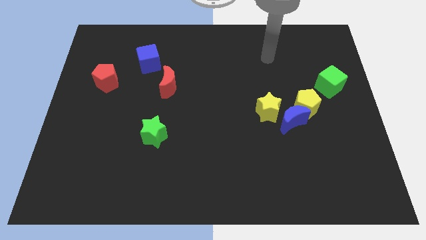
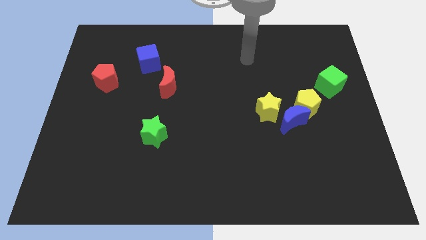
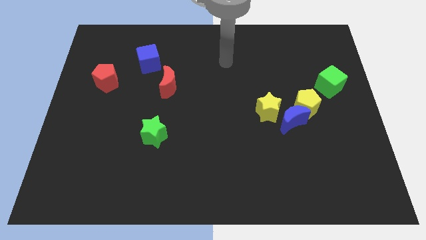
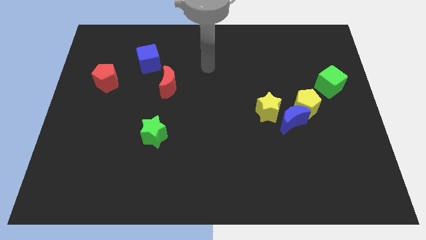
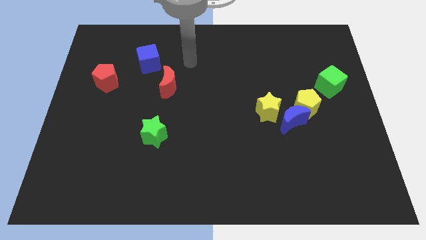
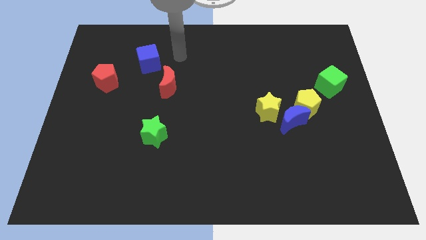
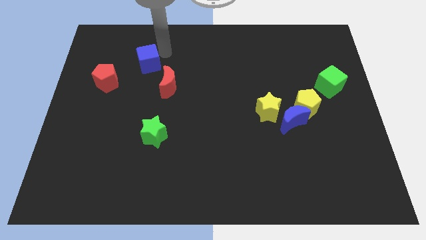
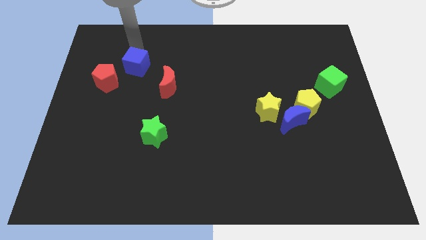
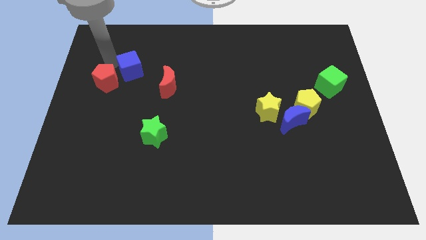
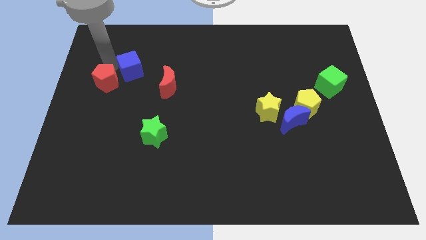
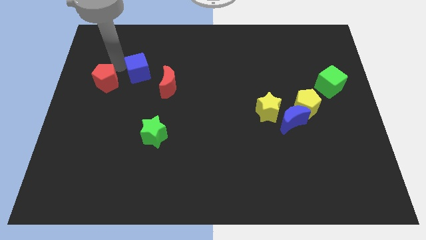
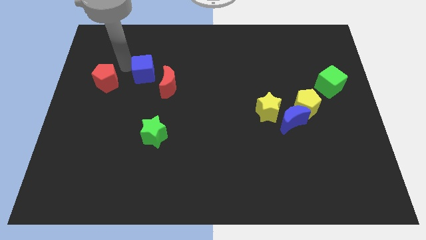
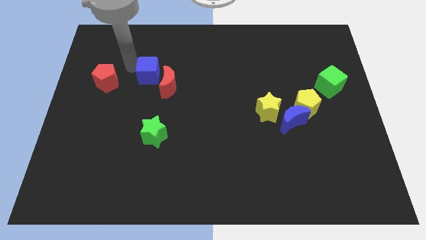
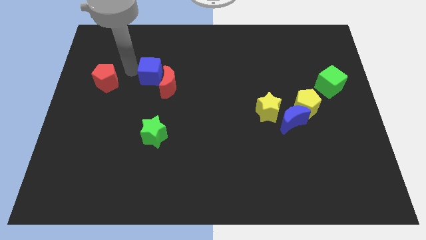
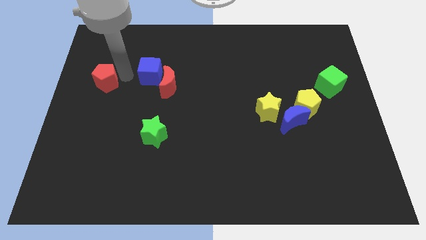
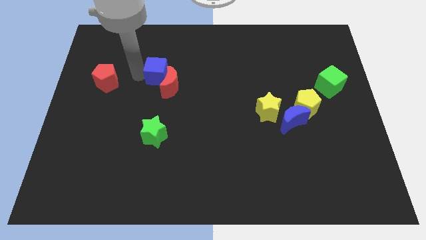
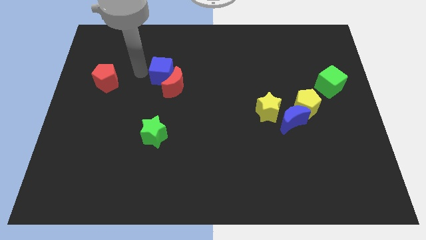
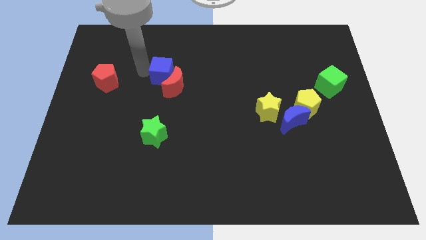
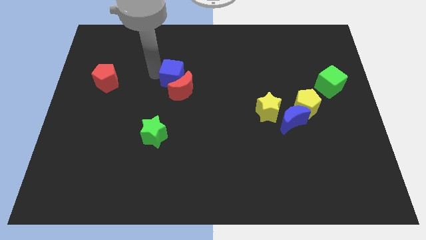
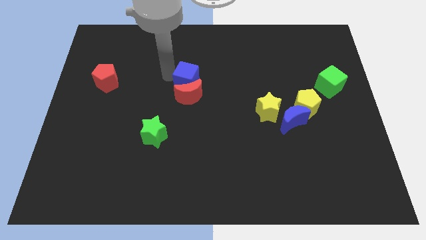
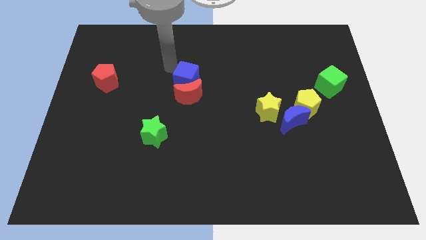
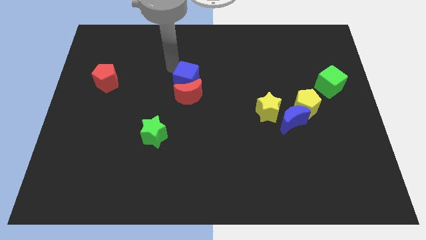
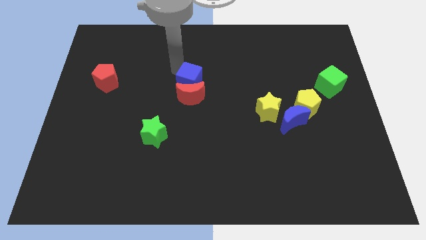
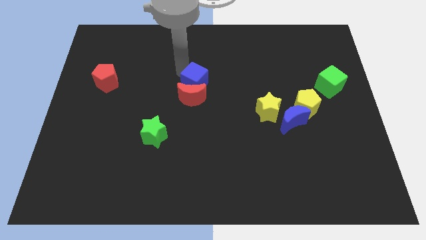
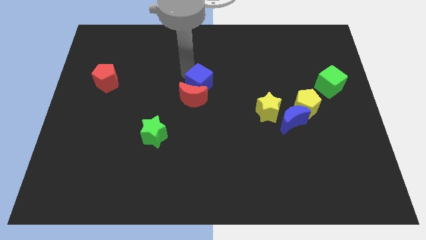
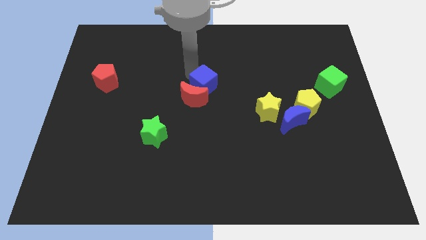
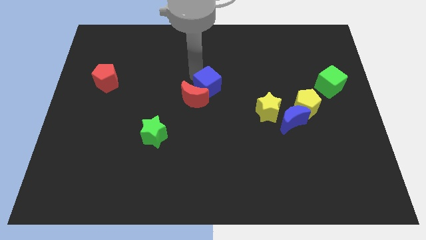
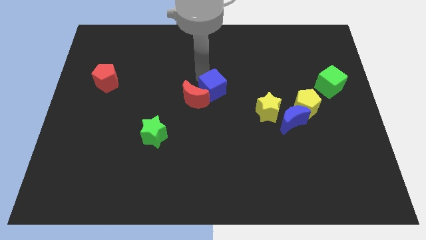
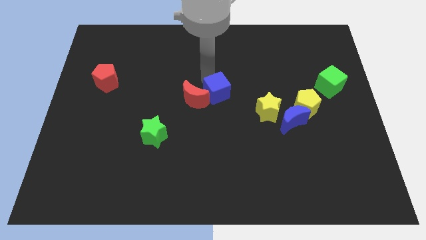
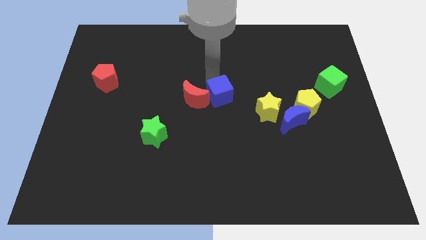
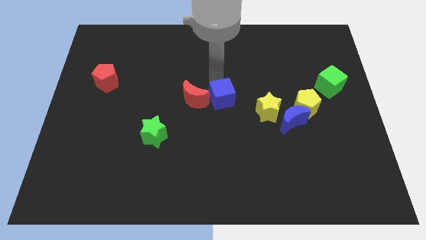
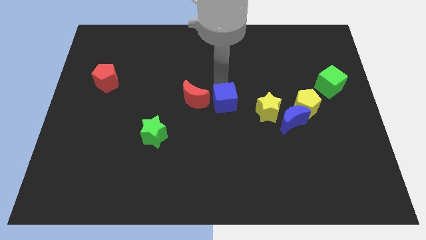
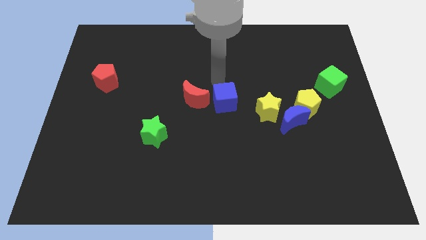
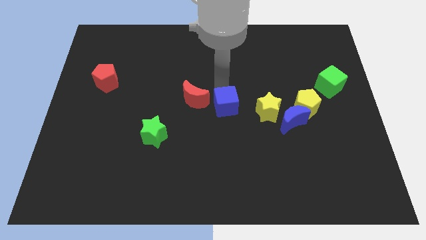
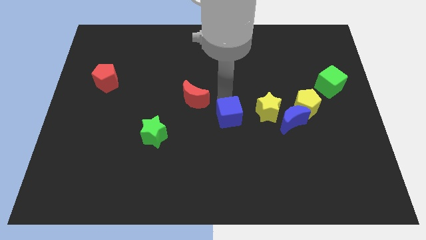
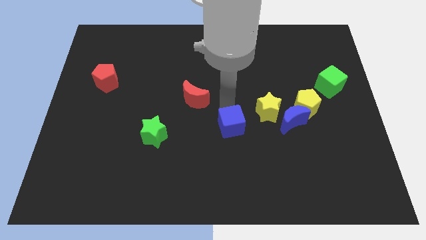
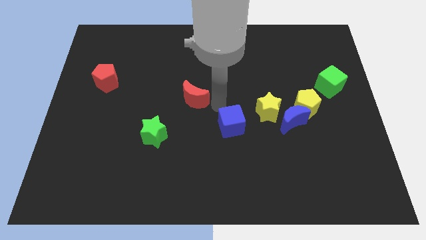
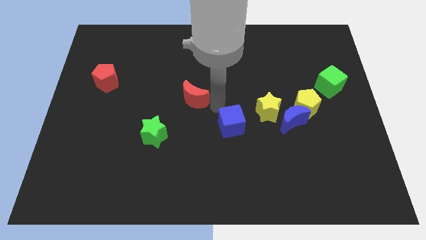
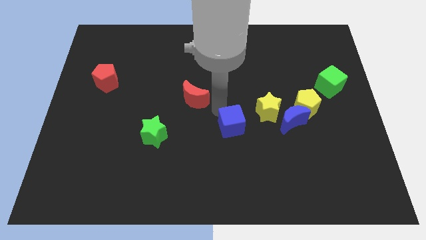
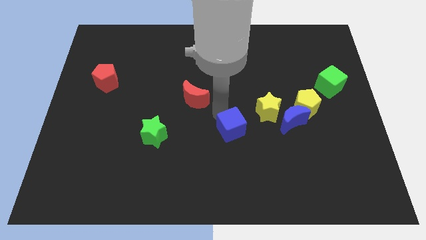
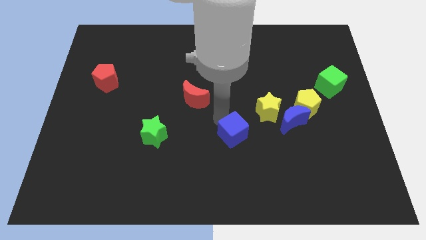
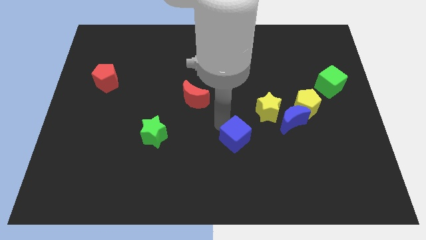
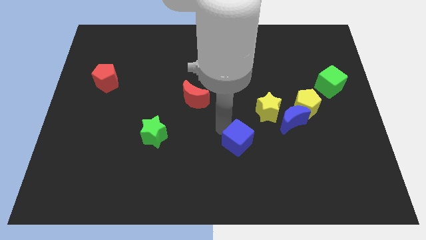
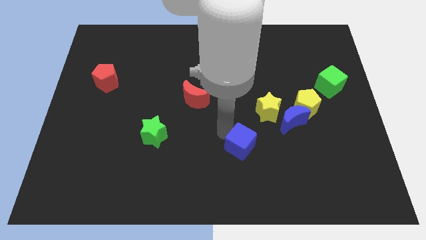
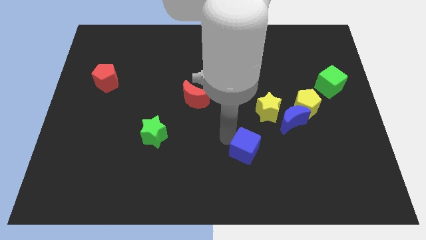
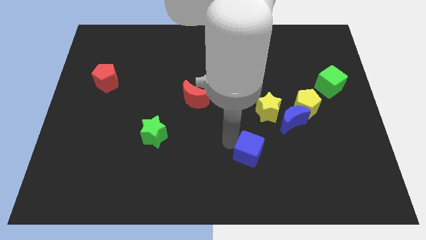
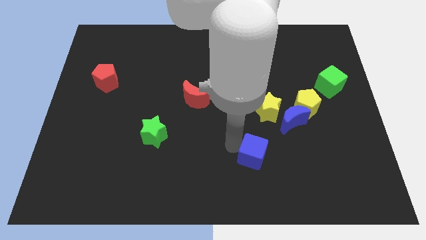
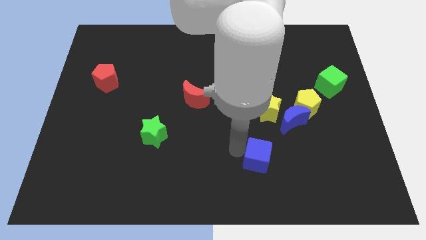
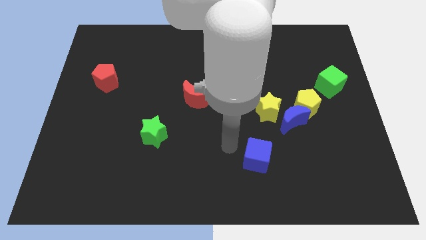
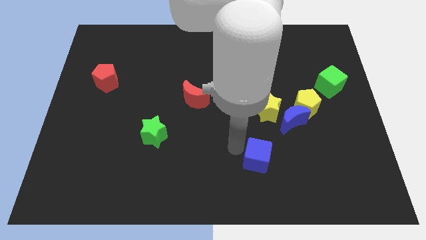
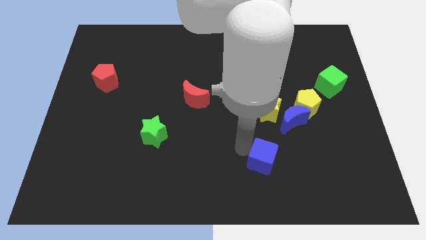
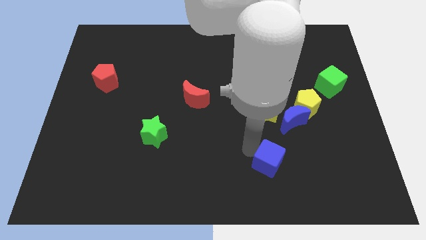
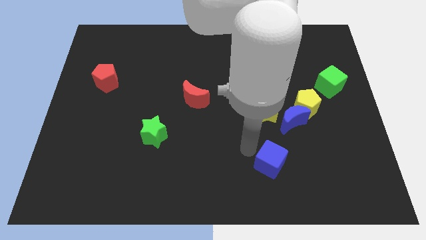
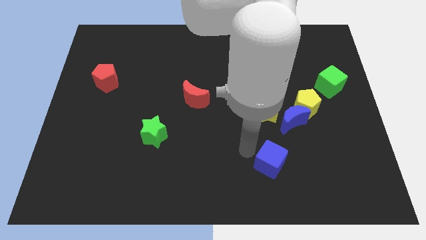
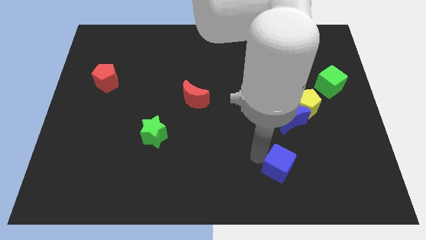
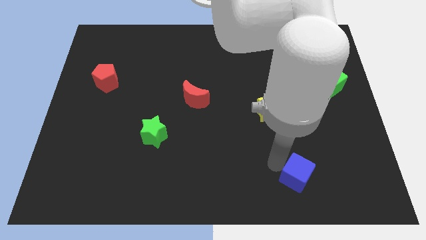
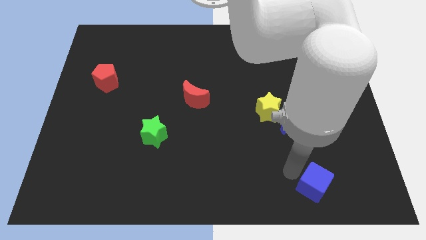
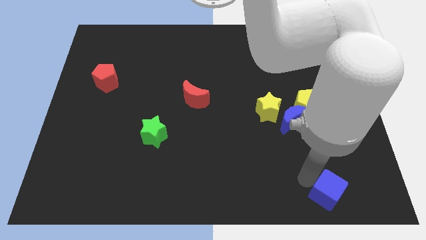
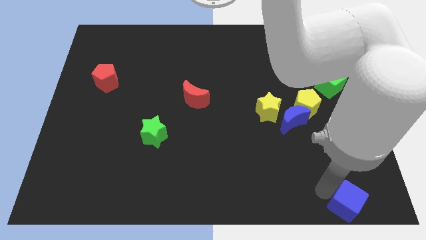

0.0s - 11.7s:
put the blue cube to the bottom right corner

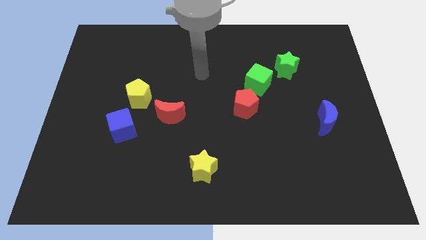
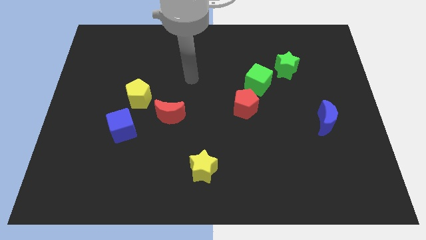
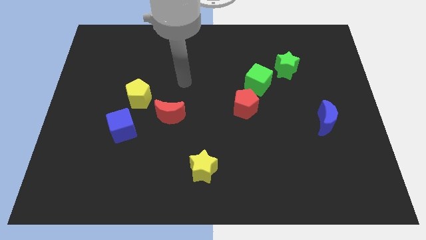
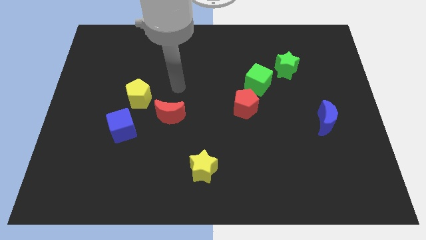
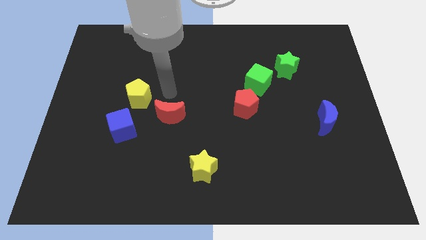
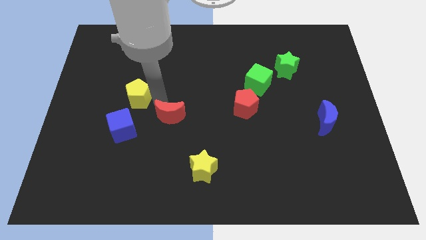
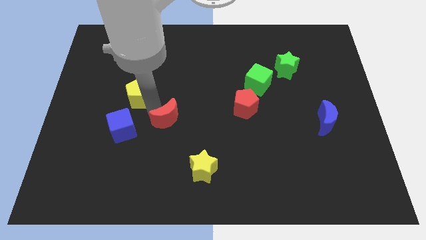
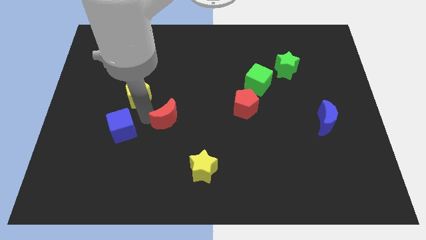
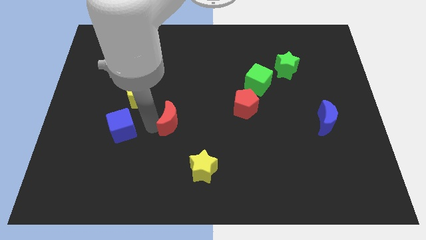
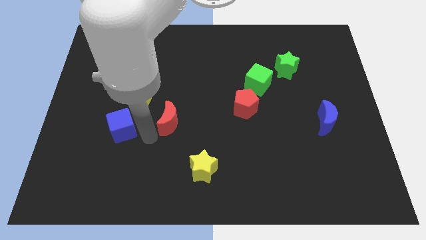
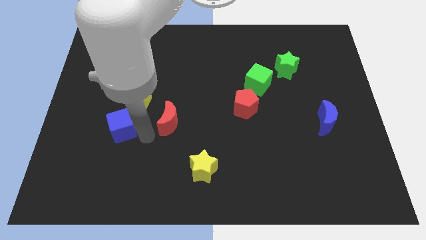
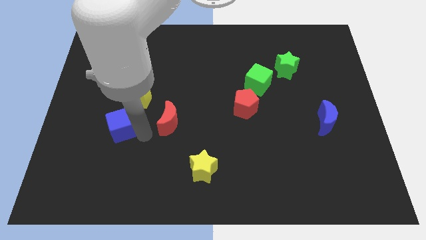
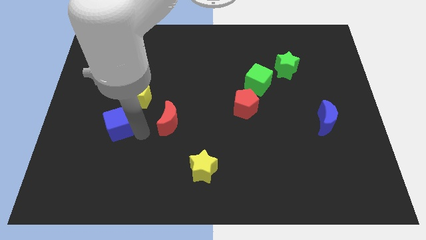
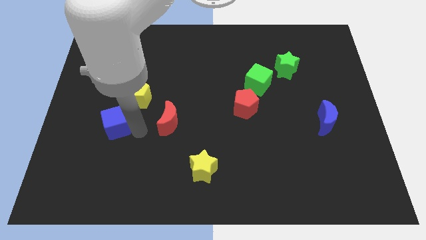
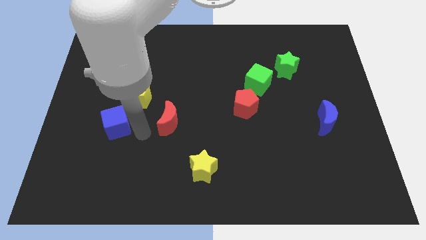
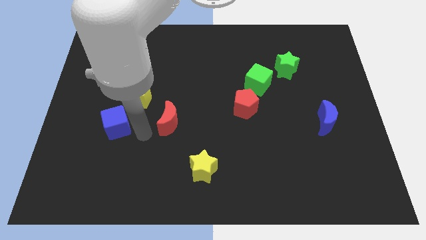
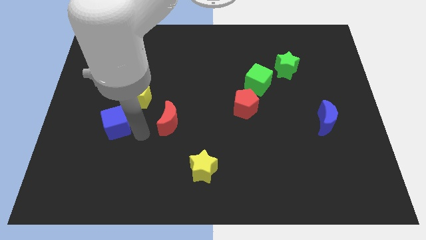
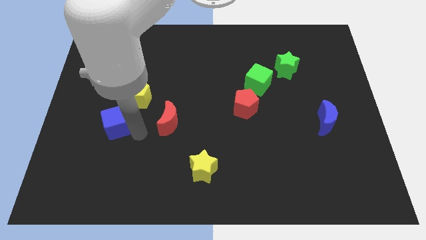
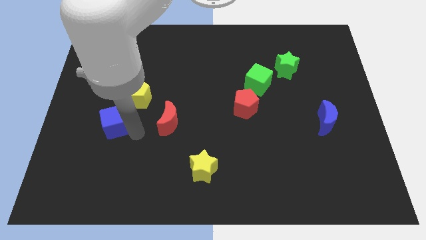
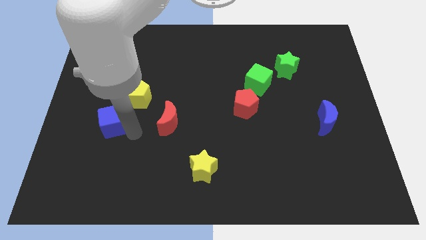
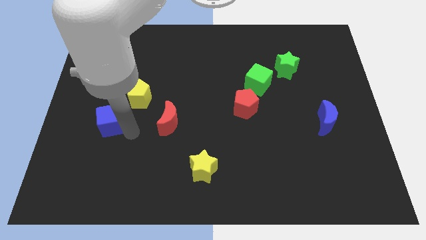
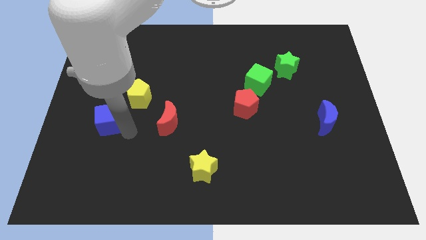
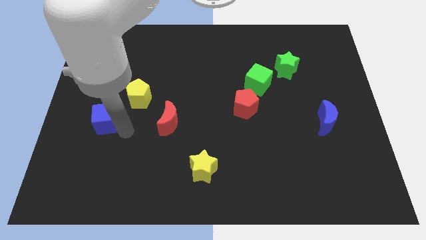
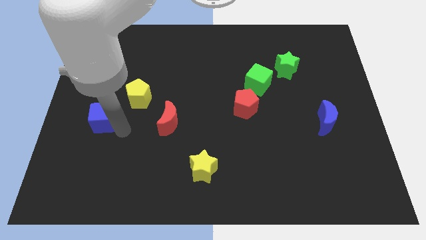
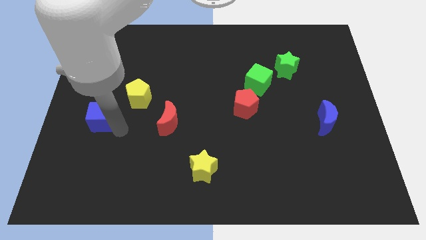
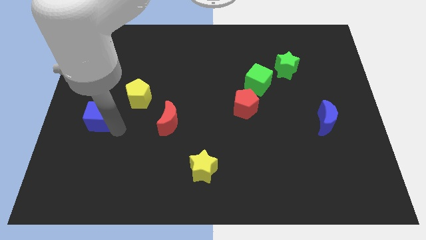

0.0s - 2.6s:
put the blue cube to the center left
